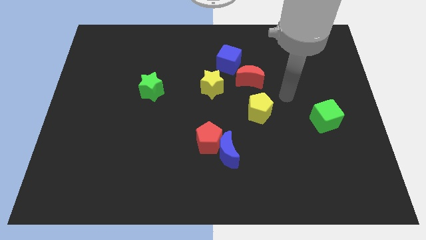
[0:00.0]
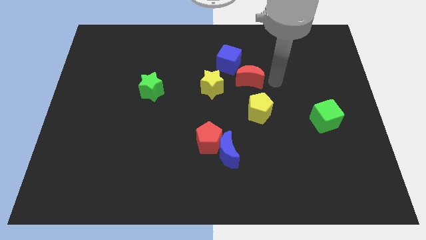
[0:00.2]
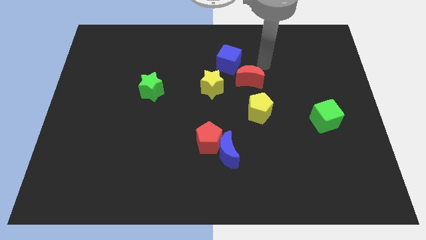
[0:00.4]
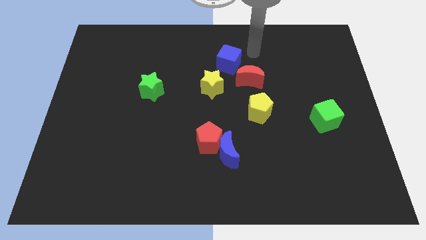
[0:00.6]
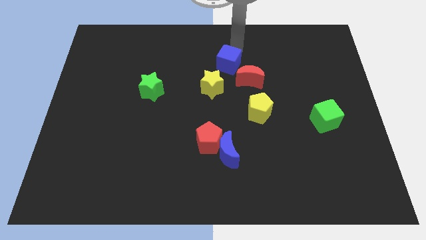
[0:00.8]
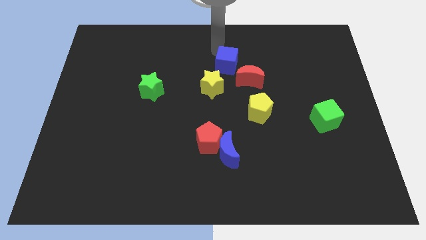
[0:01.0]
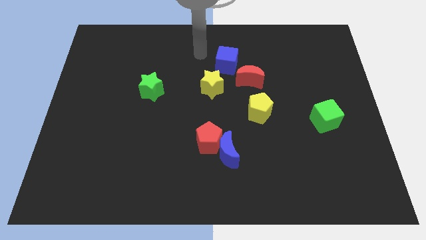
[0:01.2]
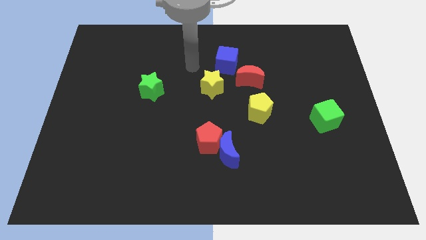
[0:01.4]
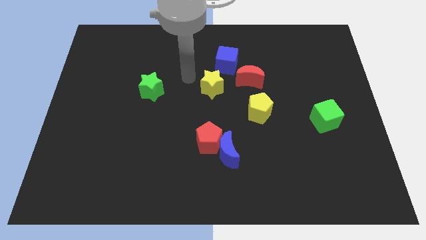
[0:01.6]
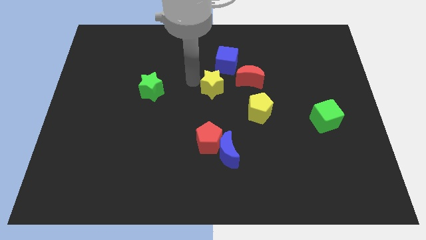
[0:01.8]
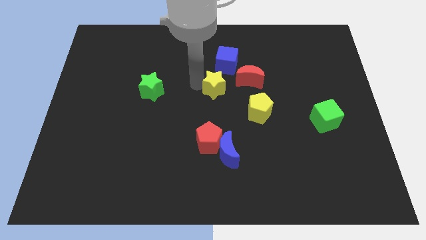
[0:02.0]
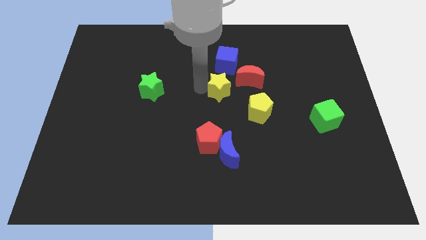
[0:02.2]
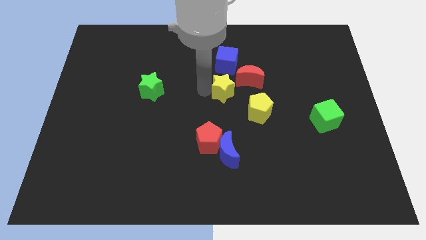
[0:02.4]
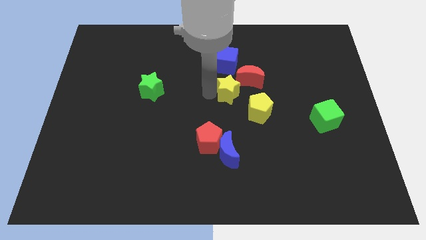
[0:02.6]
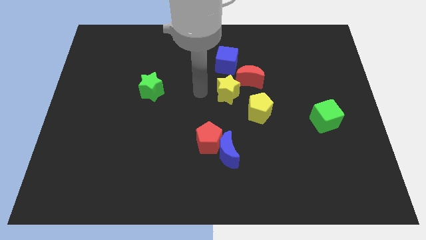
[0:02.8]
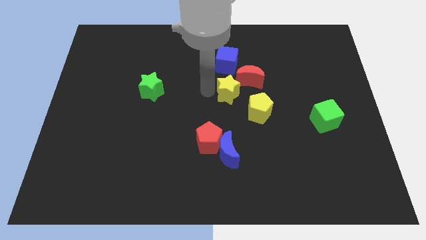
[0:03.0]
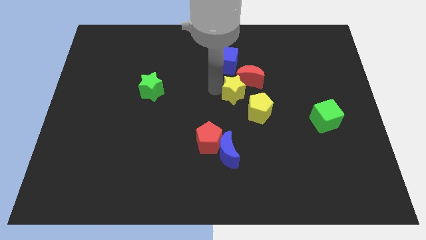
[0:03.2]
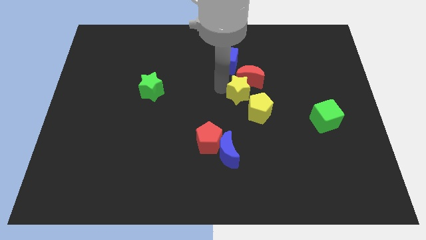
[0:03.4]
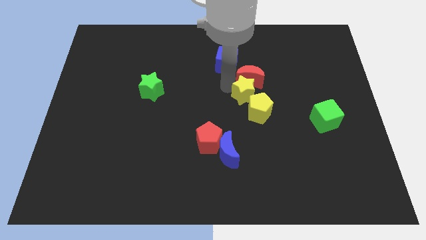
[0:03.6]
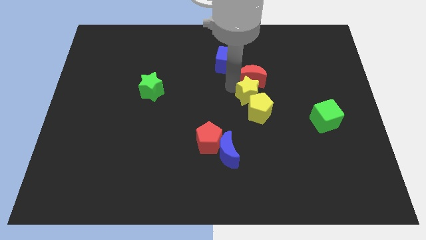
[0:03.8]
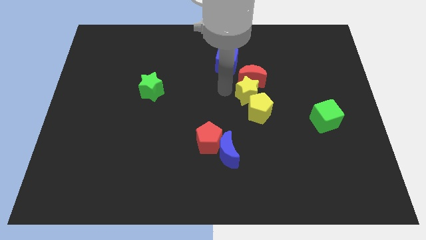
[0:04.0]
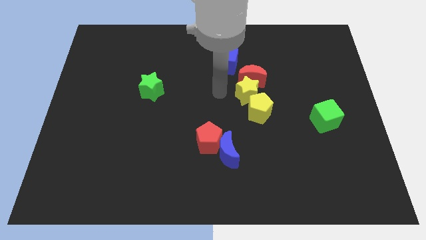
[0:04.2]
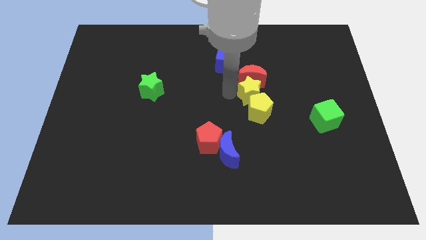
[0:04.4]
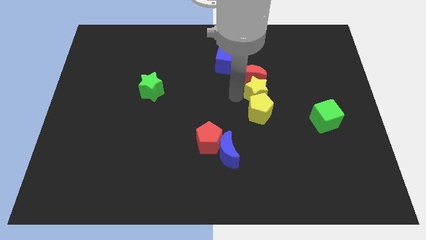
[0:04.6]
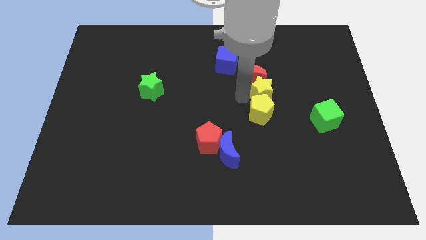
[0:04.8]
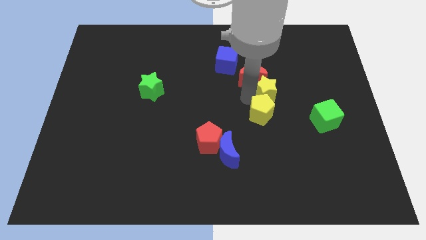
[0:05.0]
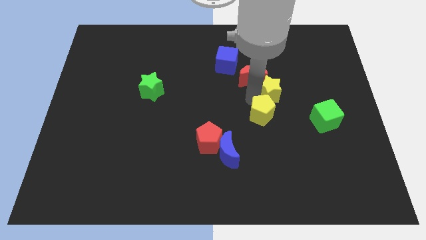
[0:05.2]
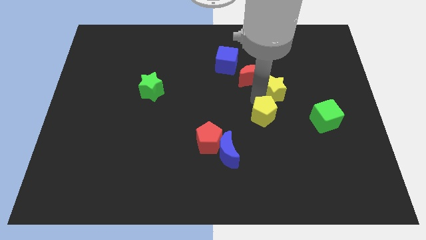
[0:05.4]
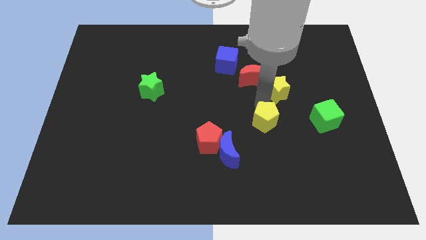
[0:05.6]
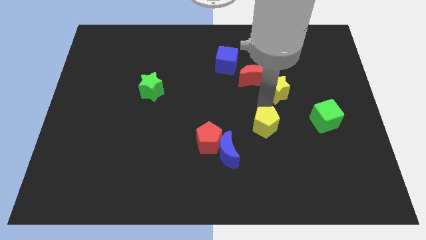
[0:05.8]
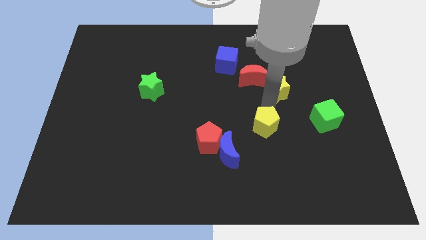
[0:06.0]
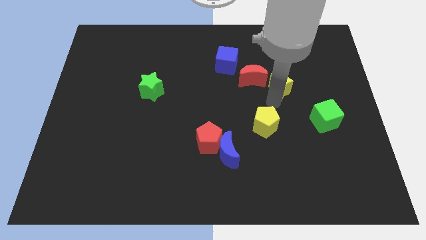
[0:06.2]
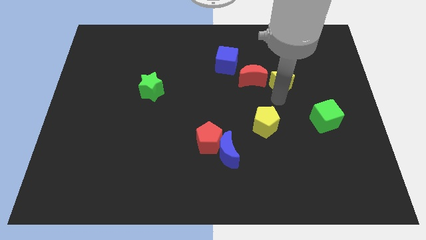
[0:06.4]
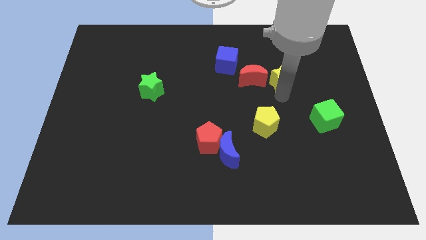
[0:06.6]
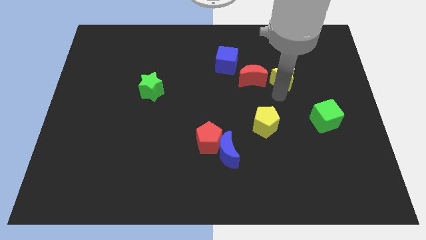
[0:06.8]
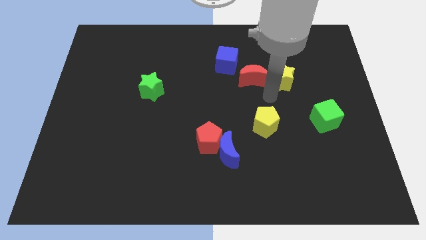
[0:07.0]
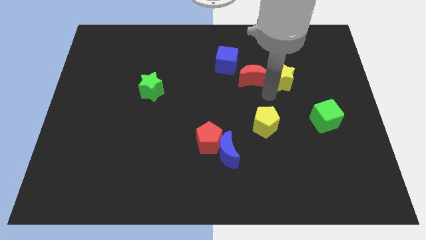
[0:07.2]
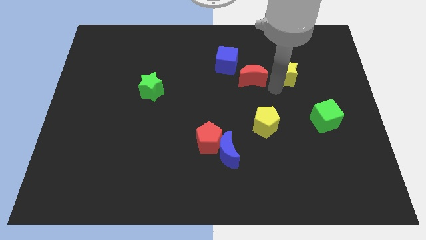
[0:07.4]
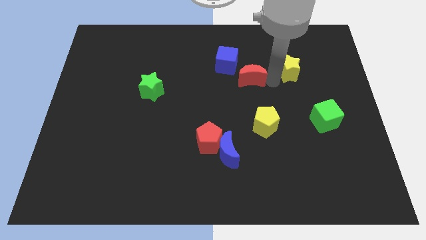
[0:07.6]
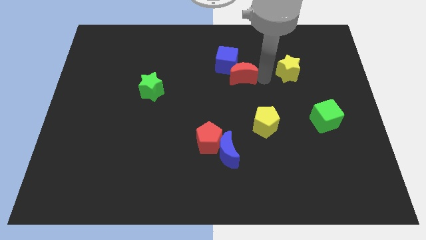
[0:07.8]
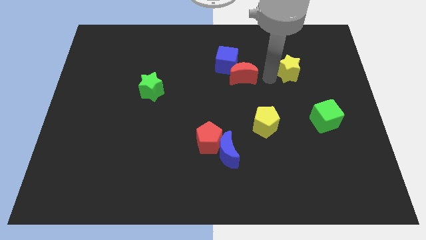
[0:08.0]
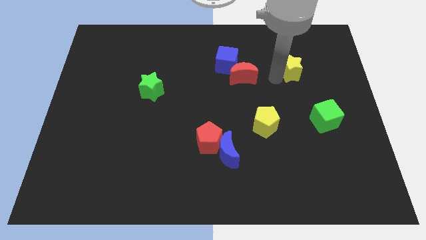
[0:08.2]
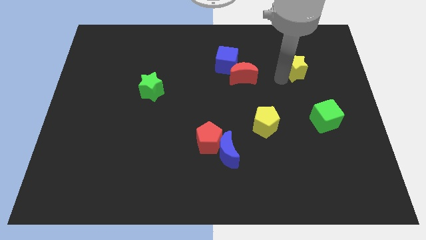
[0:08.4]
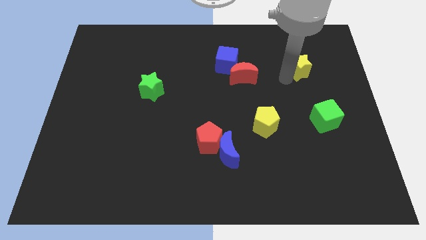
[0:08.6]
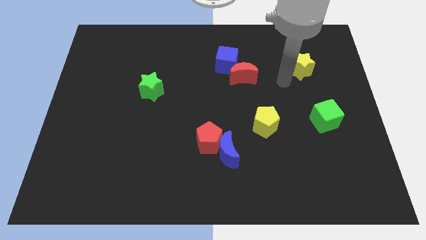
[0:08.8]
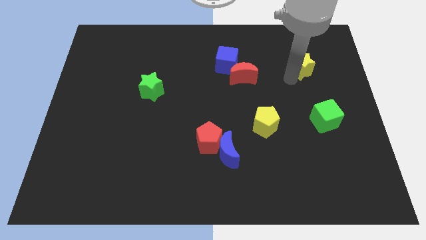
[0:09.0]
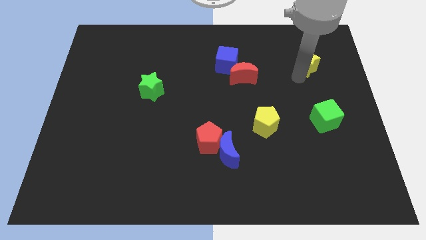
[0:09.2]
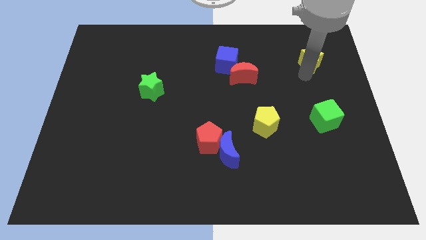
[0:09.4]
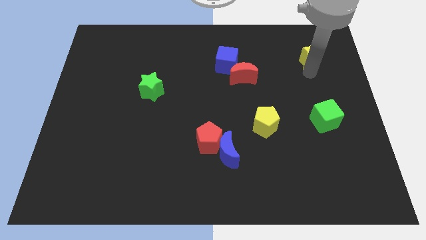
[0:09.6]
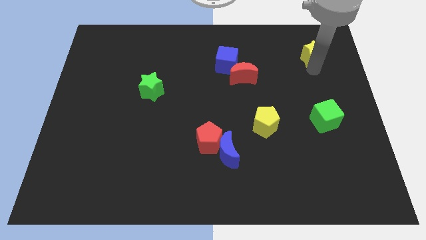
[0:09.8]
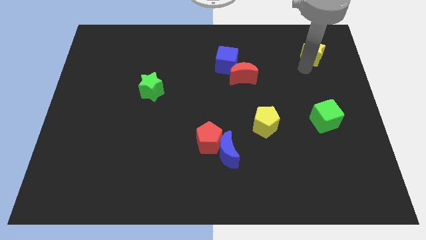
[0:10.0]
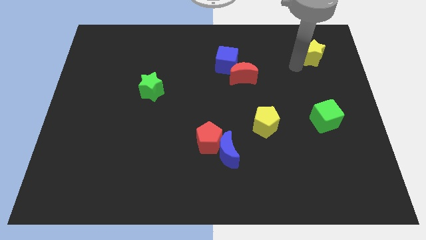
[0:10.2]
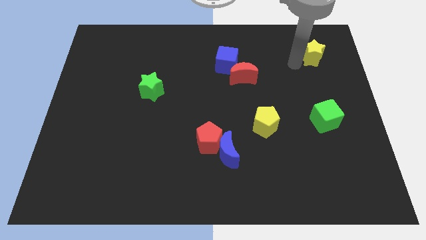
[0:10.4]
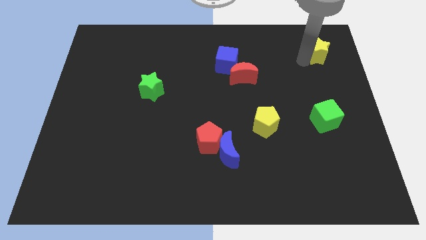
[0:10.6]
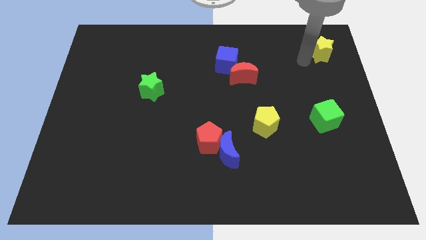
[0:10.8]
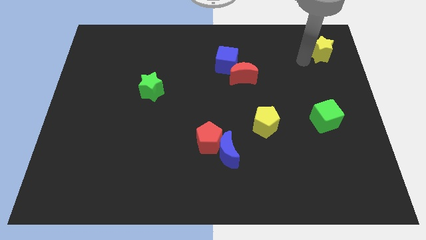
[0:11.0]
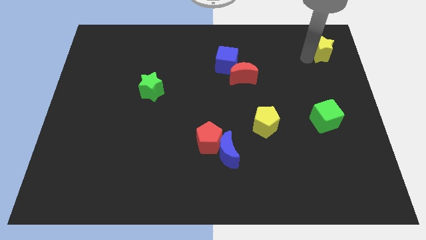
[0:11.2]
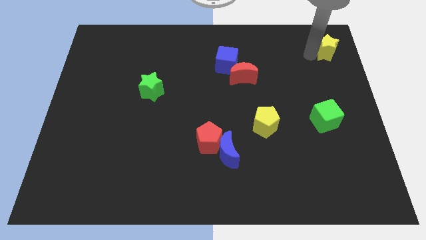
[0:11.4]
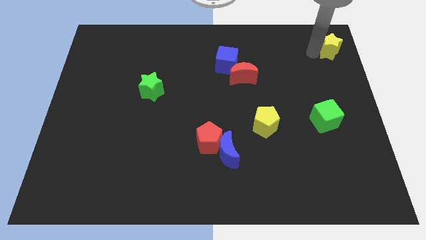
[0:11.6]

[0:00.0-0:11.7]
slide the yellow star to the top right corner

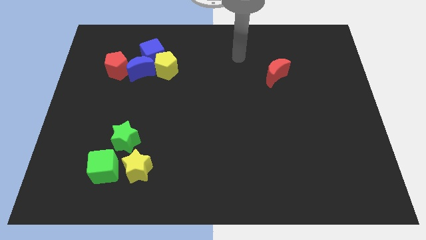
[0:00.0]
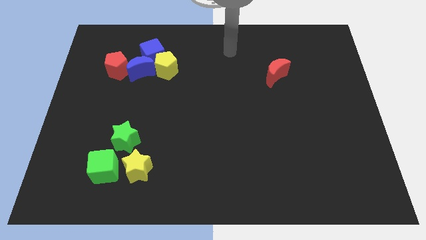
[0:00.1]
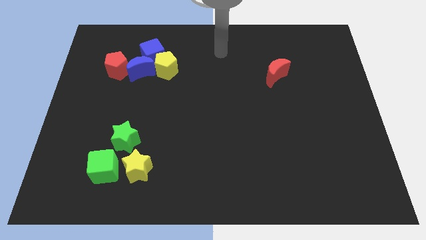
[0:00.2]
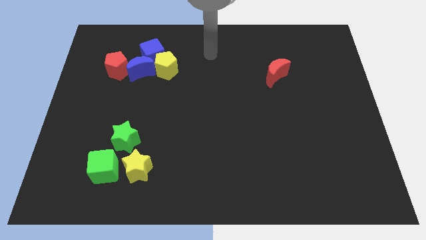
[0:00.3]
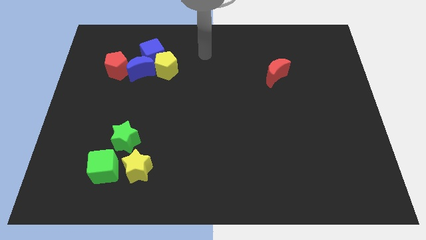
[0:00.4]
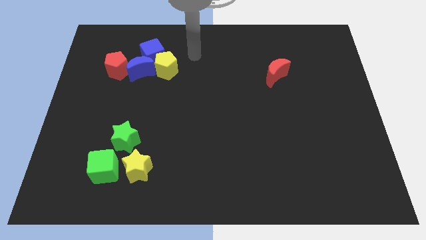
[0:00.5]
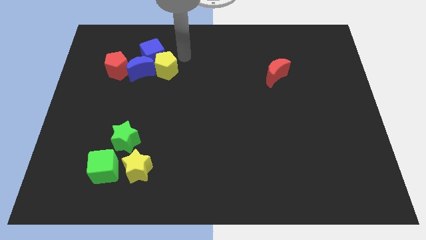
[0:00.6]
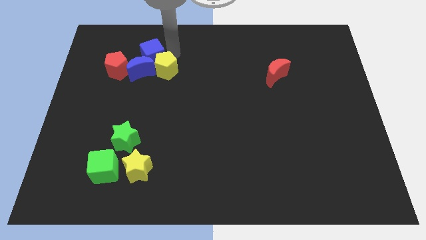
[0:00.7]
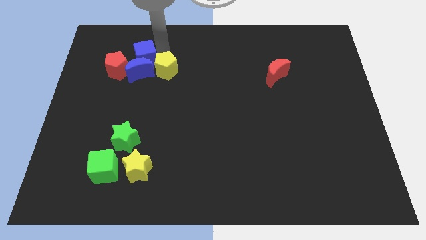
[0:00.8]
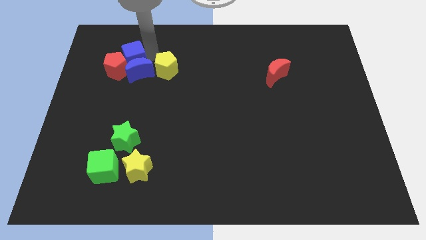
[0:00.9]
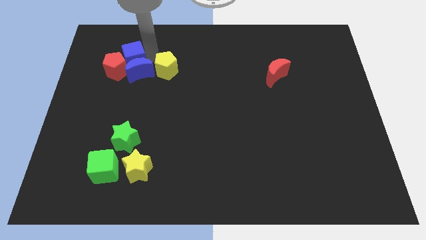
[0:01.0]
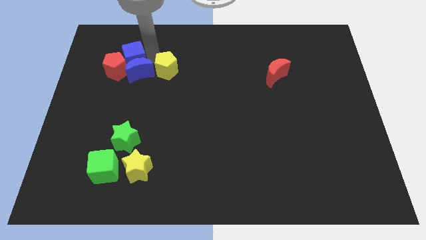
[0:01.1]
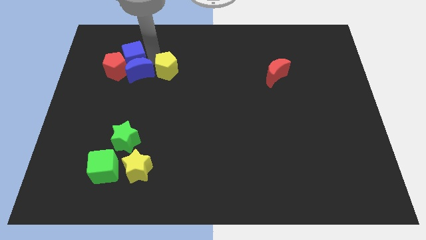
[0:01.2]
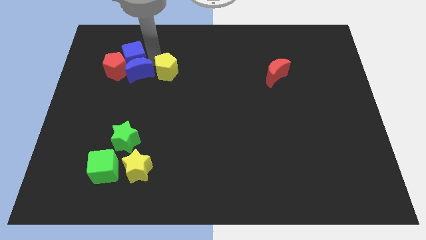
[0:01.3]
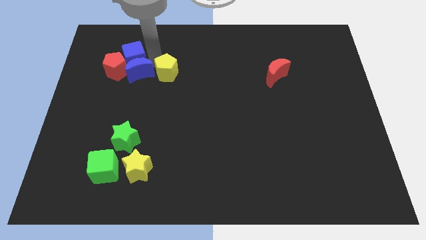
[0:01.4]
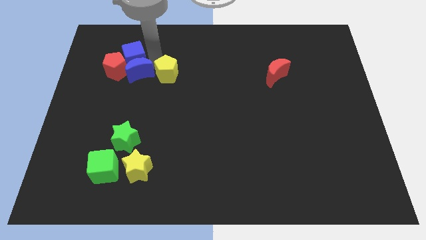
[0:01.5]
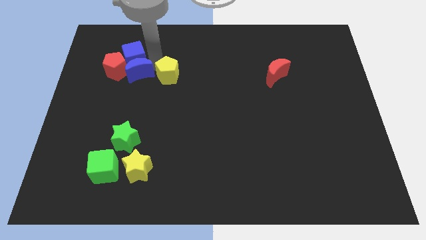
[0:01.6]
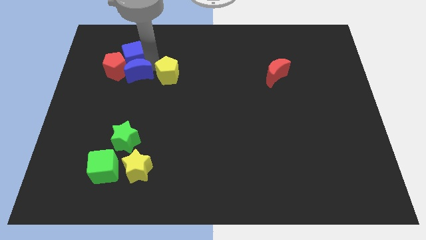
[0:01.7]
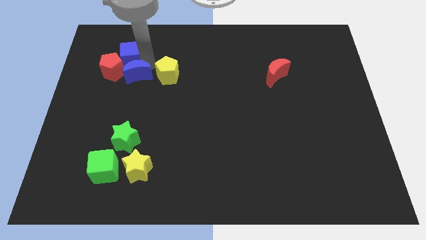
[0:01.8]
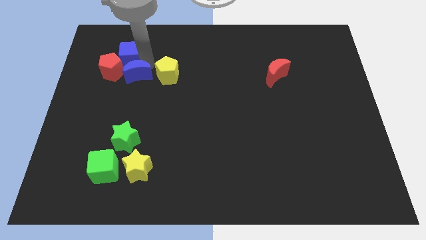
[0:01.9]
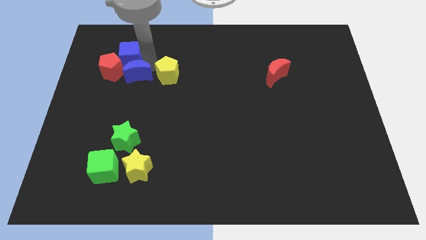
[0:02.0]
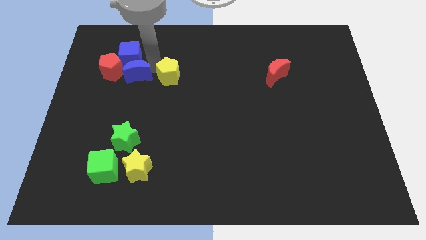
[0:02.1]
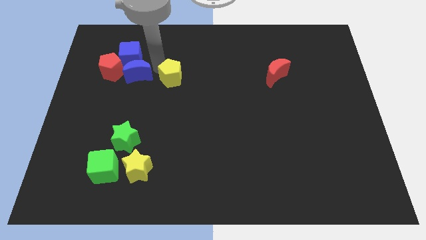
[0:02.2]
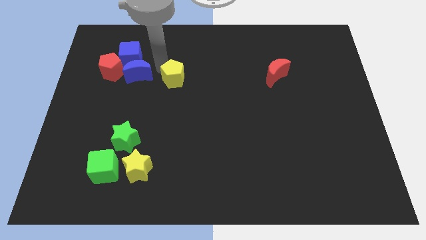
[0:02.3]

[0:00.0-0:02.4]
move the yellow pentagon to the center of the board

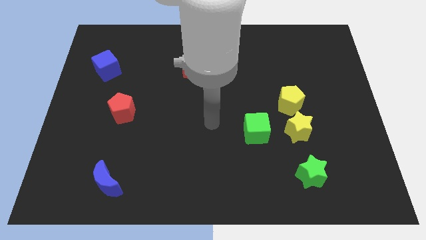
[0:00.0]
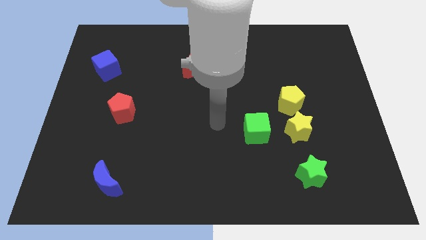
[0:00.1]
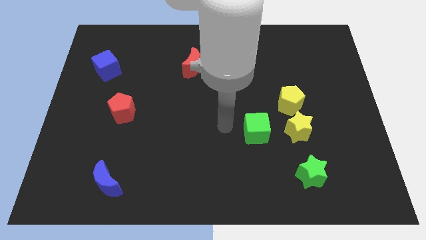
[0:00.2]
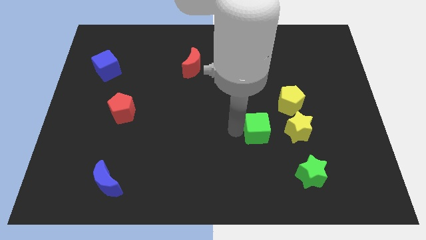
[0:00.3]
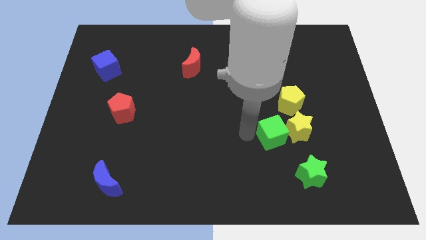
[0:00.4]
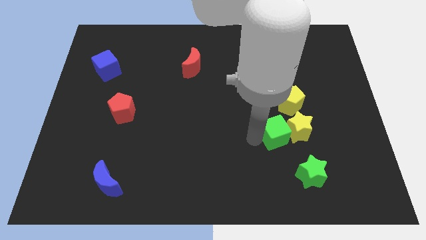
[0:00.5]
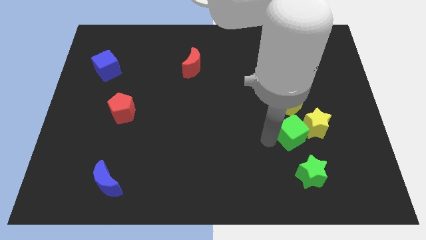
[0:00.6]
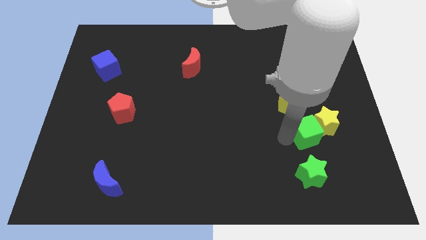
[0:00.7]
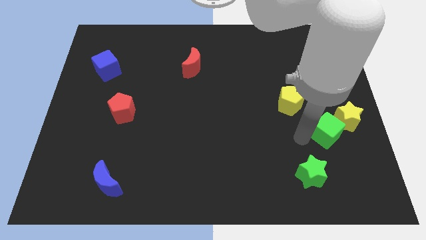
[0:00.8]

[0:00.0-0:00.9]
put the yellow star to the right side
